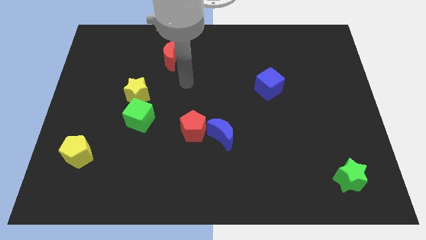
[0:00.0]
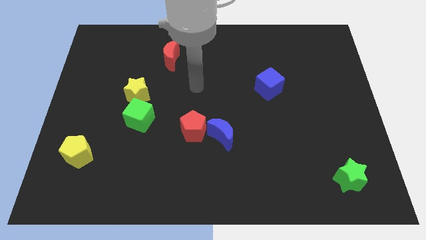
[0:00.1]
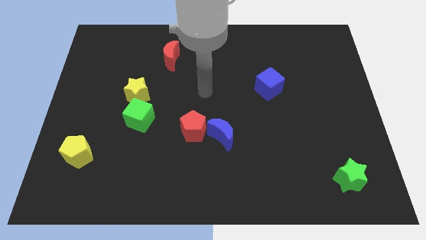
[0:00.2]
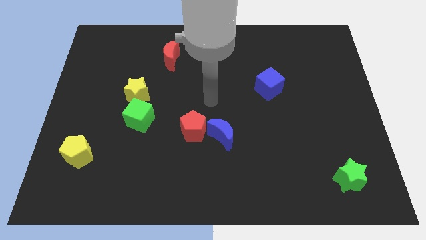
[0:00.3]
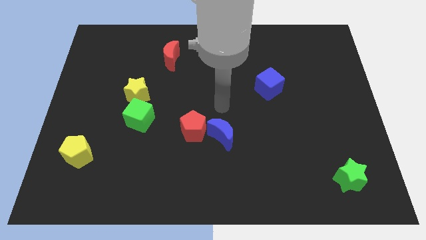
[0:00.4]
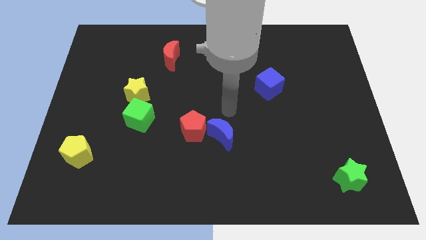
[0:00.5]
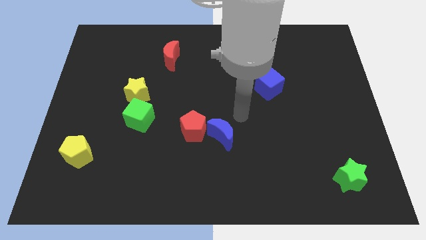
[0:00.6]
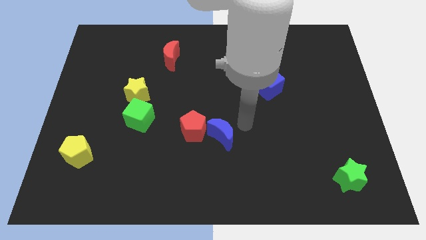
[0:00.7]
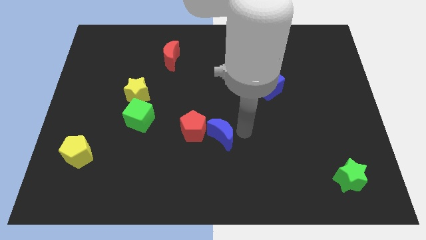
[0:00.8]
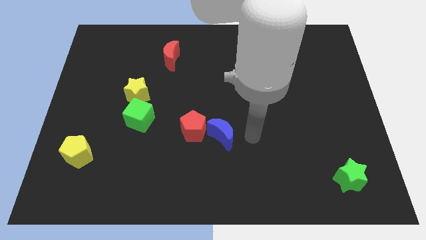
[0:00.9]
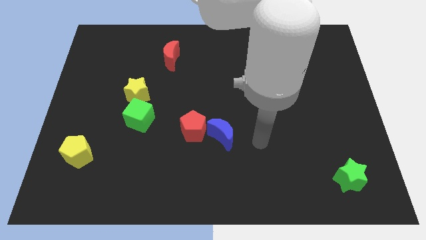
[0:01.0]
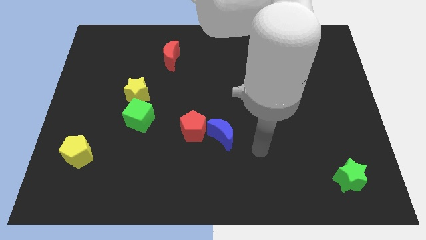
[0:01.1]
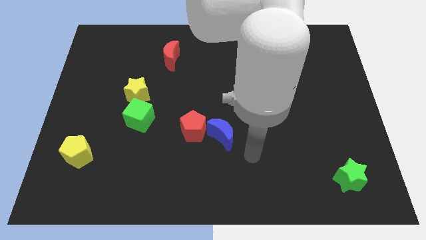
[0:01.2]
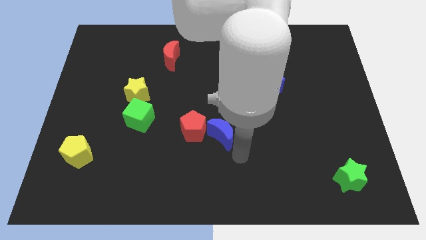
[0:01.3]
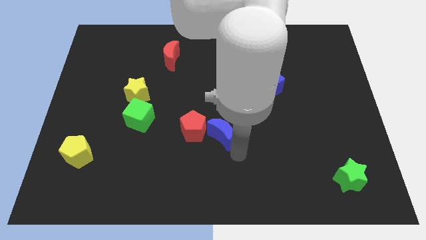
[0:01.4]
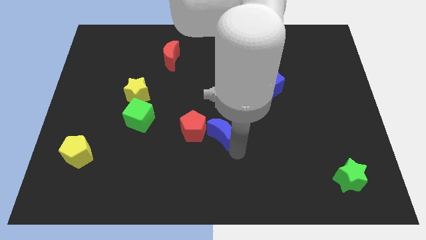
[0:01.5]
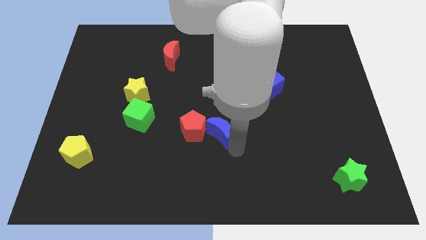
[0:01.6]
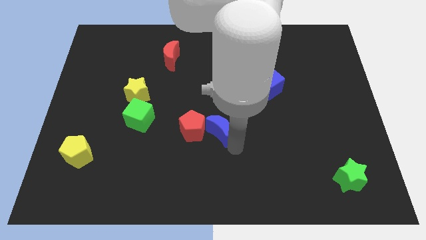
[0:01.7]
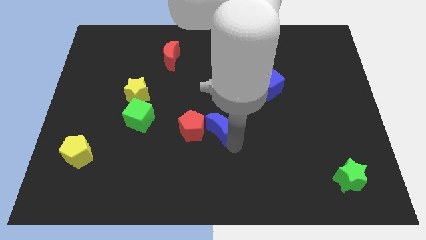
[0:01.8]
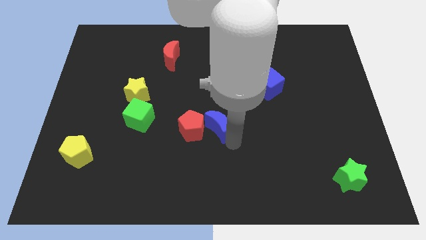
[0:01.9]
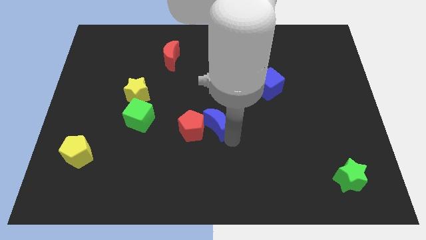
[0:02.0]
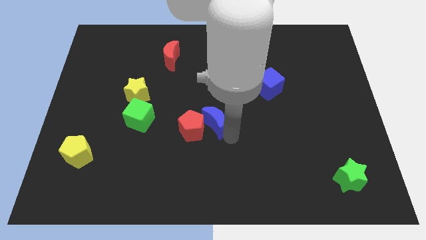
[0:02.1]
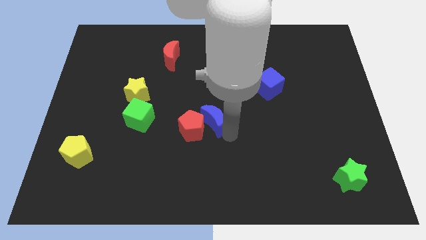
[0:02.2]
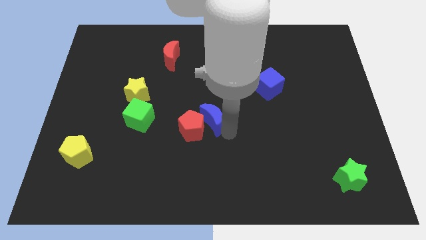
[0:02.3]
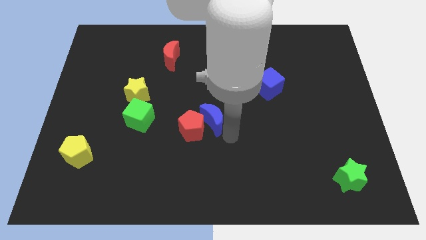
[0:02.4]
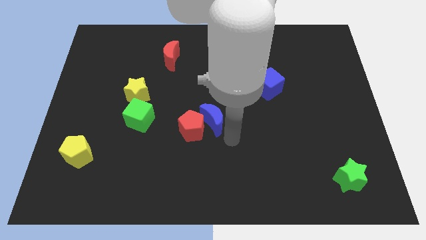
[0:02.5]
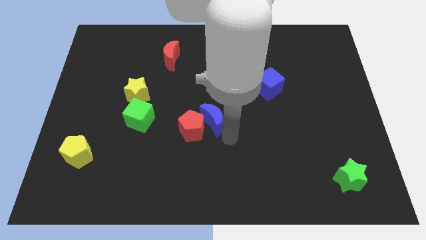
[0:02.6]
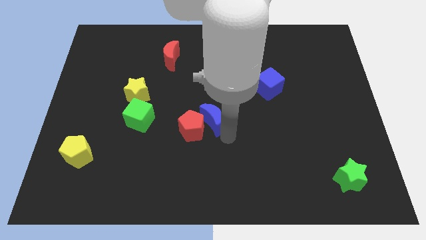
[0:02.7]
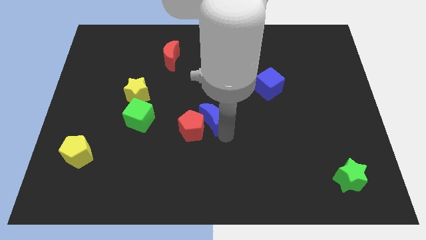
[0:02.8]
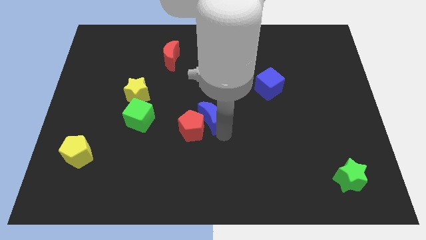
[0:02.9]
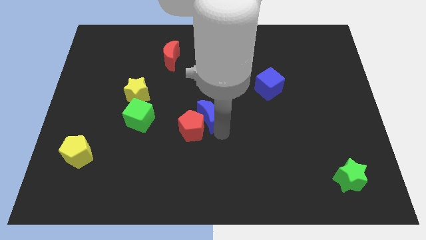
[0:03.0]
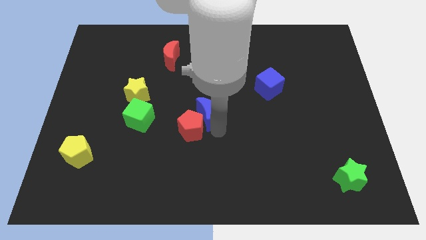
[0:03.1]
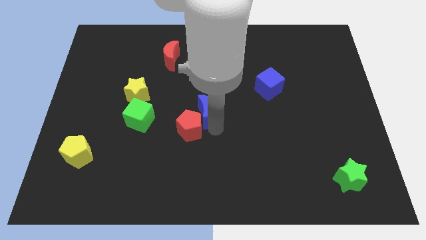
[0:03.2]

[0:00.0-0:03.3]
slightly slide the blue moon up and to the left

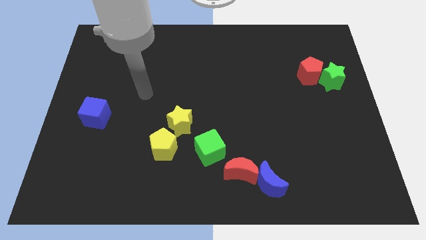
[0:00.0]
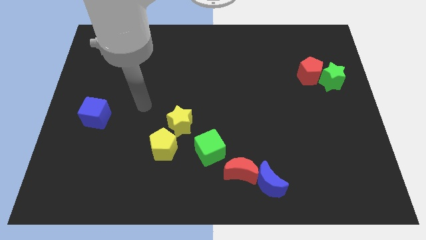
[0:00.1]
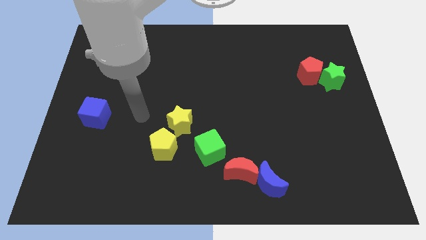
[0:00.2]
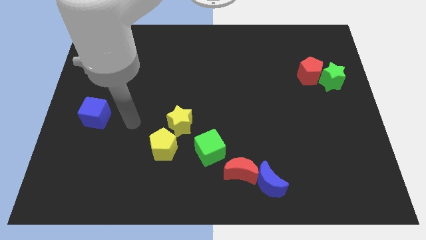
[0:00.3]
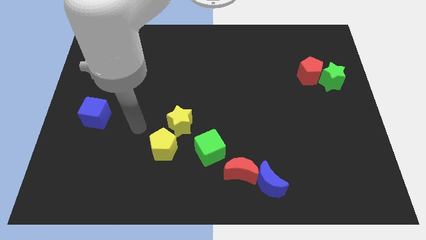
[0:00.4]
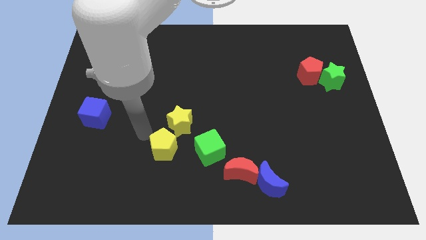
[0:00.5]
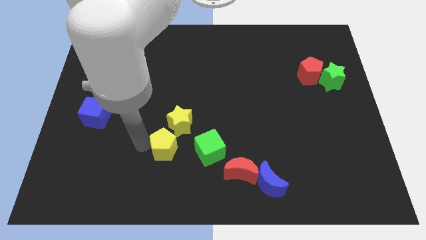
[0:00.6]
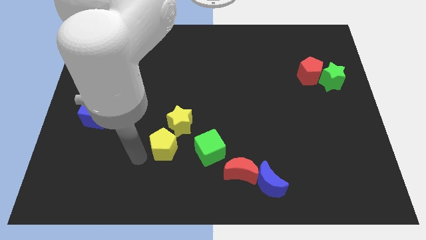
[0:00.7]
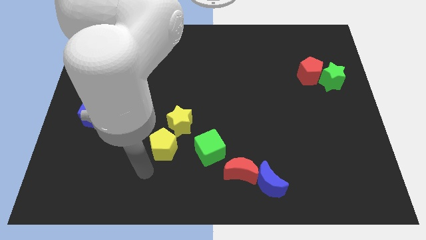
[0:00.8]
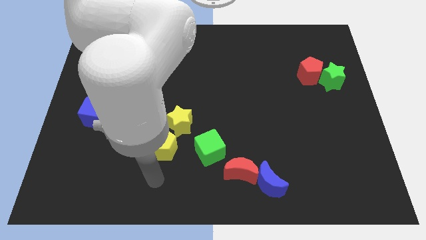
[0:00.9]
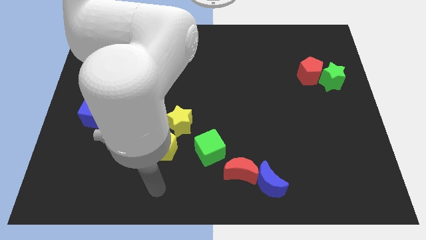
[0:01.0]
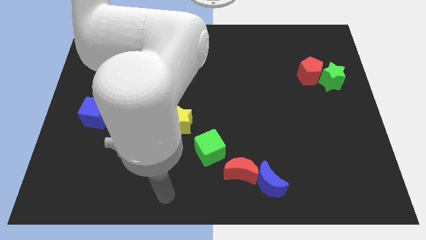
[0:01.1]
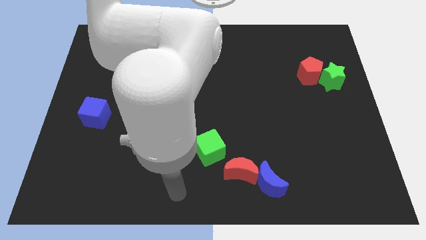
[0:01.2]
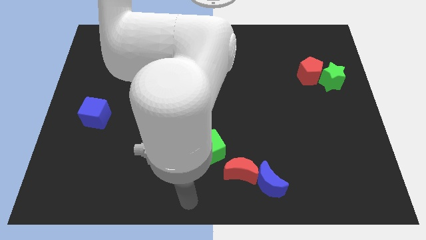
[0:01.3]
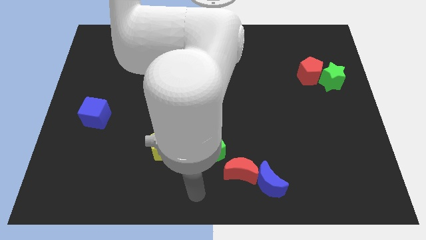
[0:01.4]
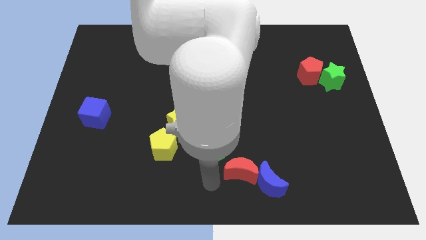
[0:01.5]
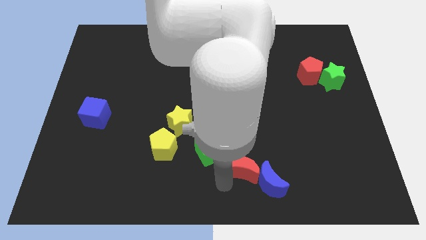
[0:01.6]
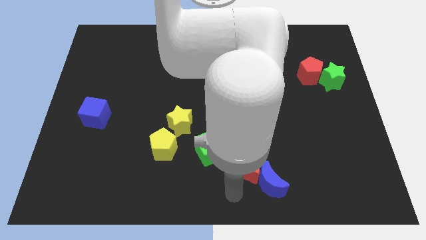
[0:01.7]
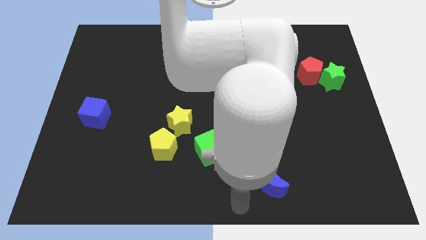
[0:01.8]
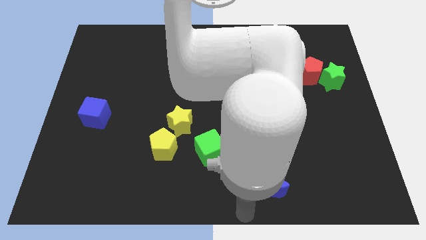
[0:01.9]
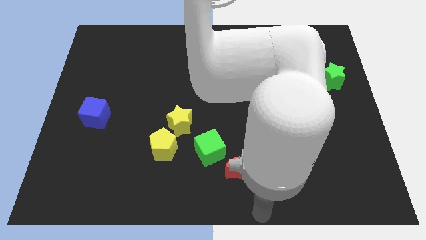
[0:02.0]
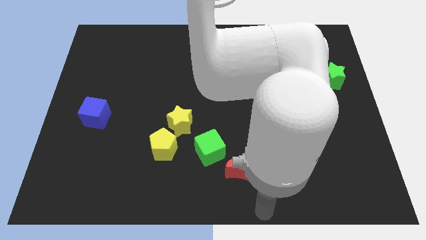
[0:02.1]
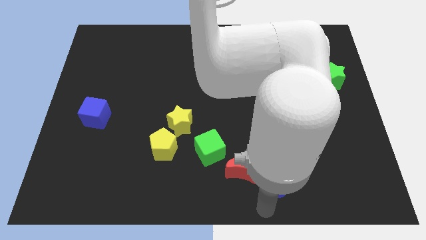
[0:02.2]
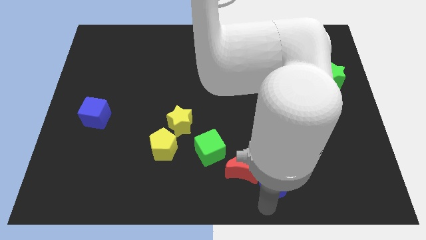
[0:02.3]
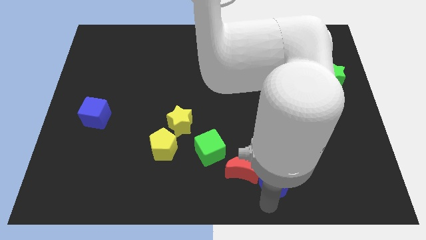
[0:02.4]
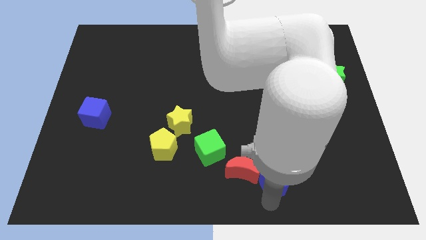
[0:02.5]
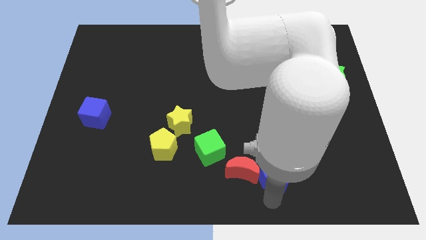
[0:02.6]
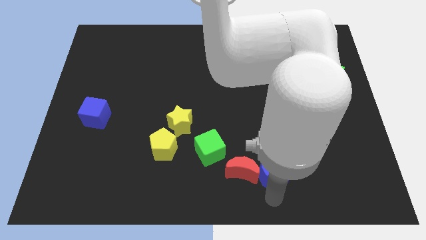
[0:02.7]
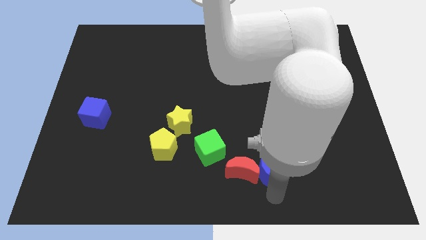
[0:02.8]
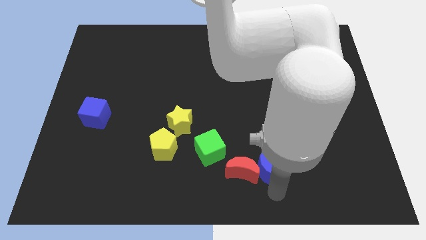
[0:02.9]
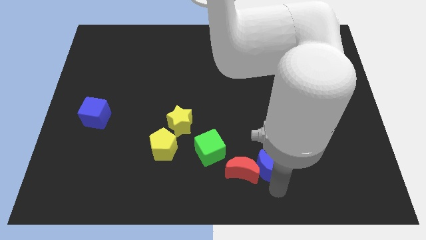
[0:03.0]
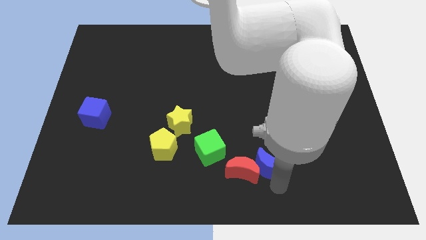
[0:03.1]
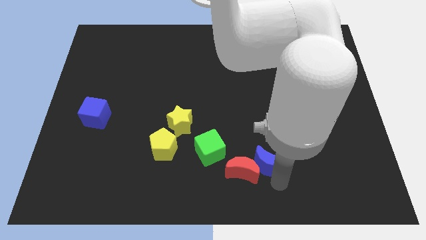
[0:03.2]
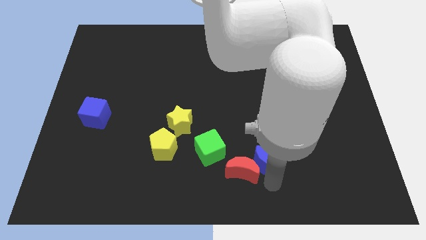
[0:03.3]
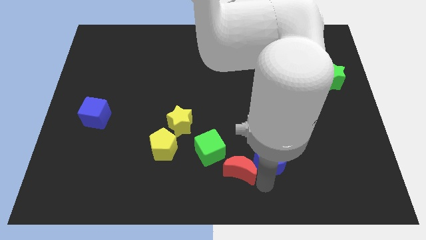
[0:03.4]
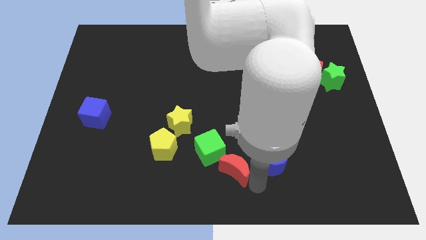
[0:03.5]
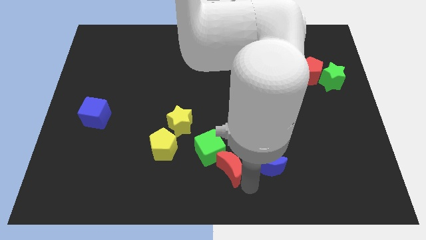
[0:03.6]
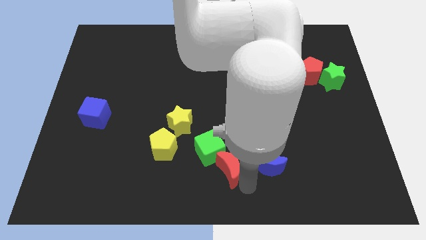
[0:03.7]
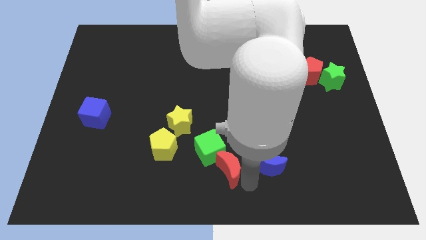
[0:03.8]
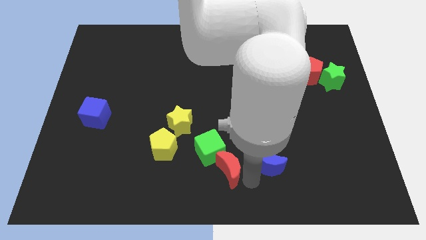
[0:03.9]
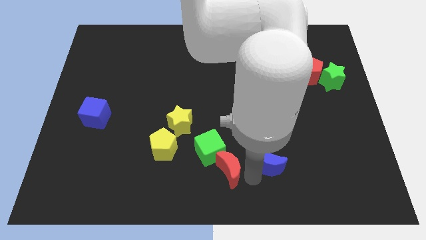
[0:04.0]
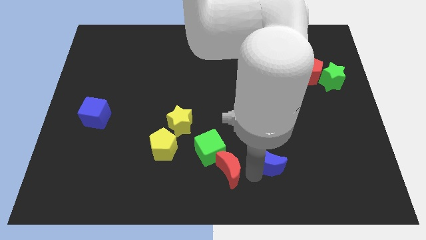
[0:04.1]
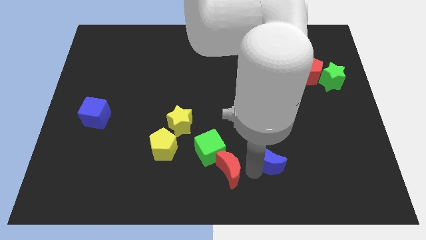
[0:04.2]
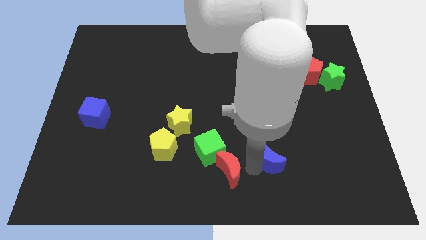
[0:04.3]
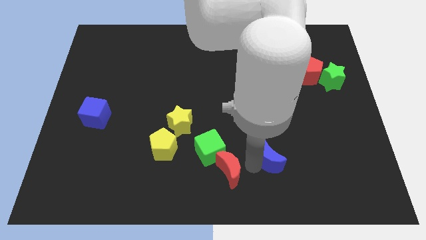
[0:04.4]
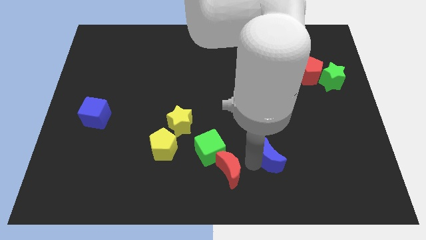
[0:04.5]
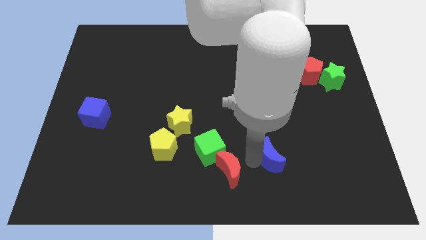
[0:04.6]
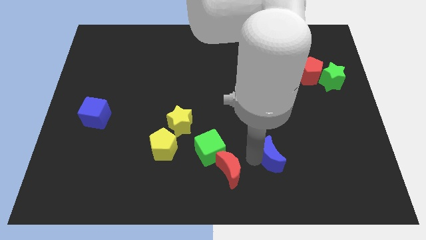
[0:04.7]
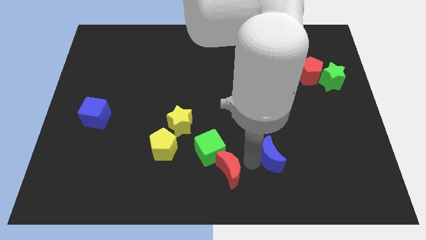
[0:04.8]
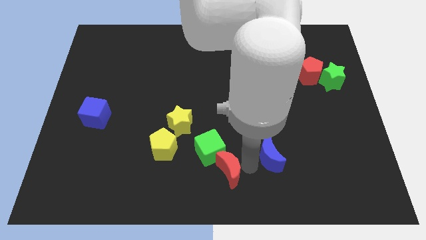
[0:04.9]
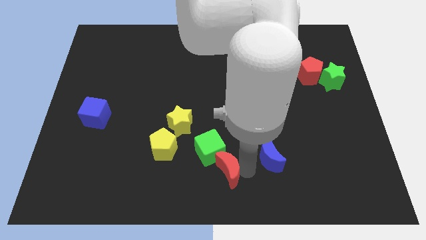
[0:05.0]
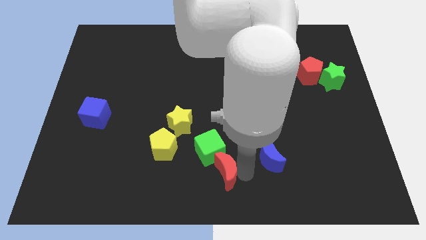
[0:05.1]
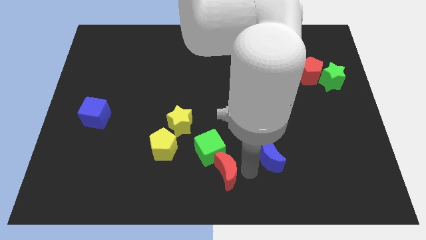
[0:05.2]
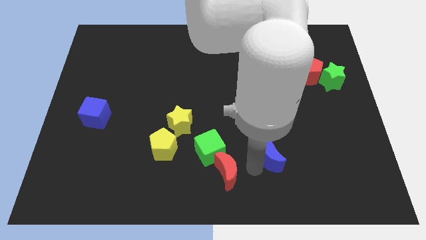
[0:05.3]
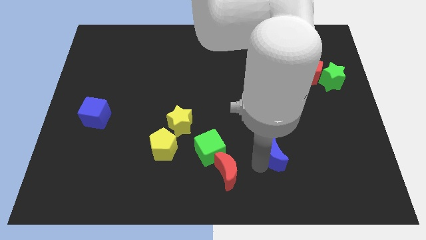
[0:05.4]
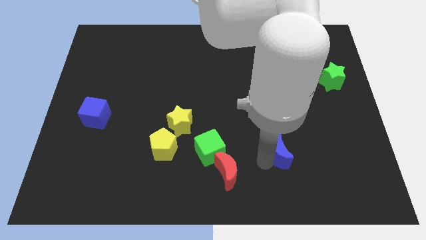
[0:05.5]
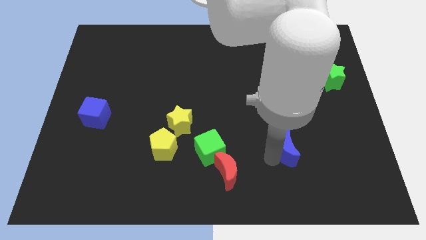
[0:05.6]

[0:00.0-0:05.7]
move the blue moon somewhat upwards and then to the right
